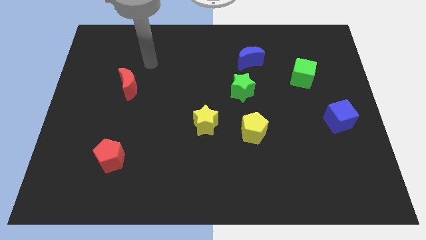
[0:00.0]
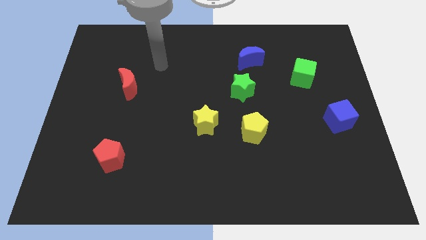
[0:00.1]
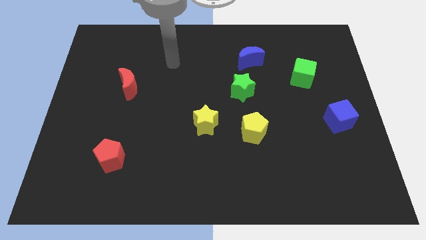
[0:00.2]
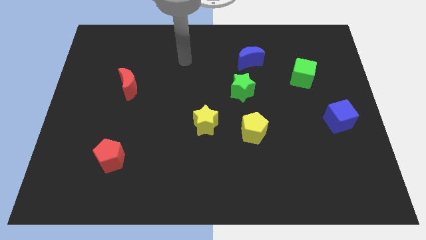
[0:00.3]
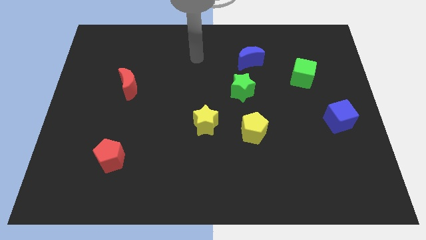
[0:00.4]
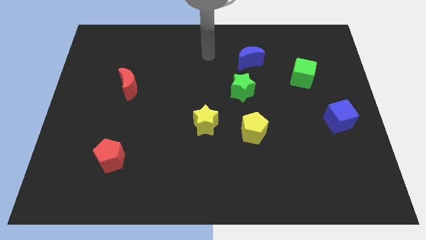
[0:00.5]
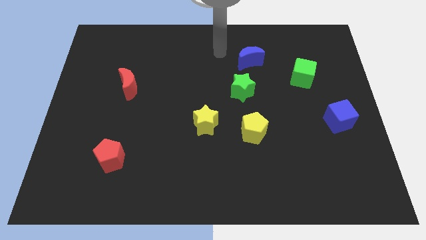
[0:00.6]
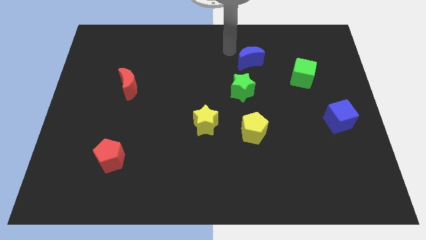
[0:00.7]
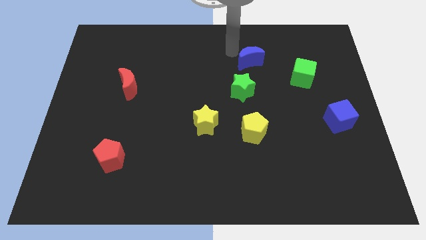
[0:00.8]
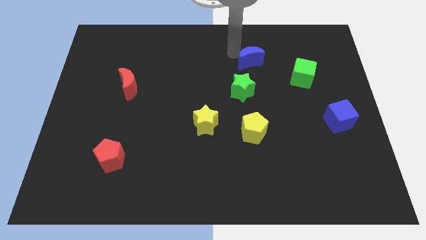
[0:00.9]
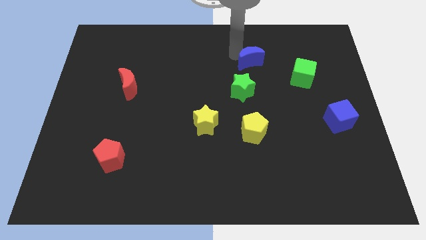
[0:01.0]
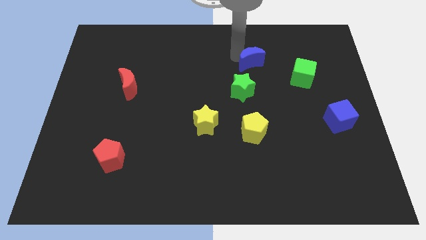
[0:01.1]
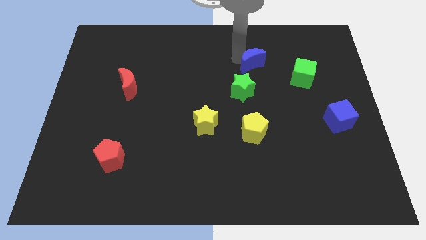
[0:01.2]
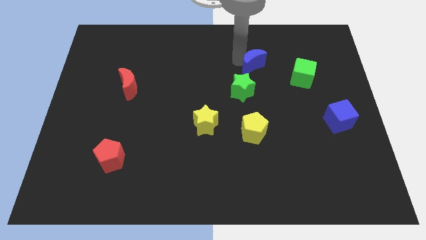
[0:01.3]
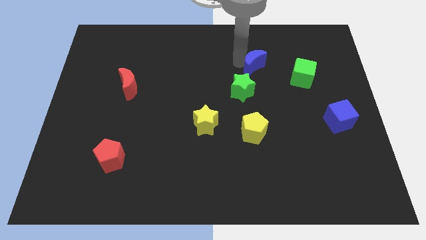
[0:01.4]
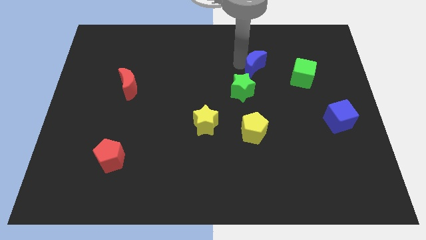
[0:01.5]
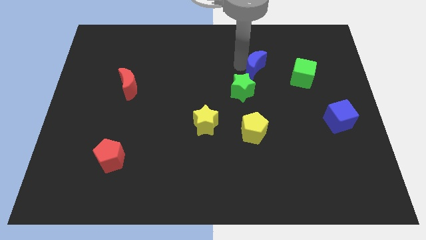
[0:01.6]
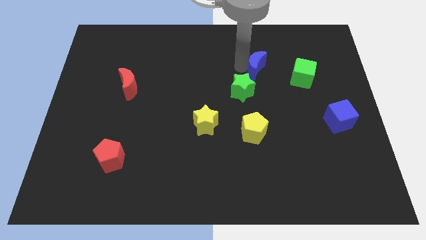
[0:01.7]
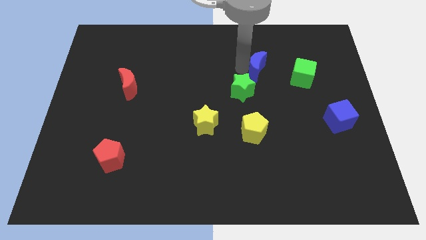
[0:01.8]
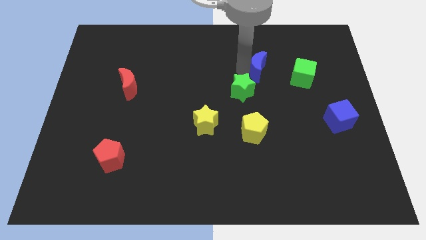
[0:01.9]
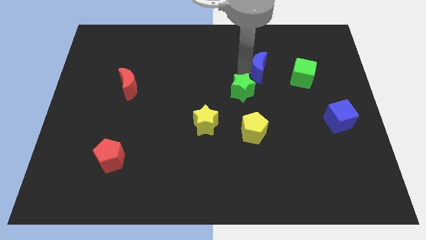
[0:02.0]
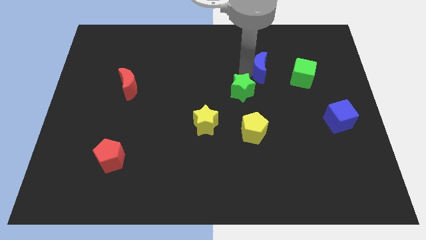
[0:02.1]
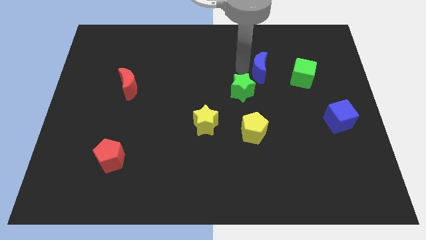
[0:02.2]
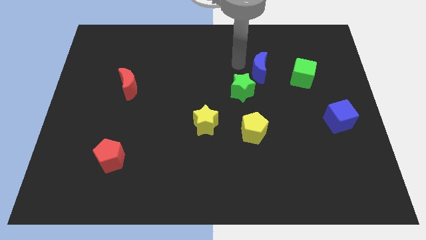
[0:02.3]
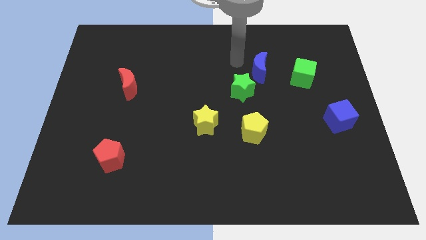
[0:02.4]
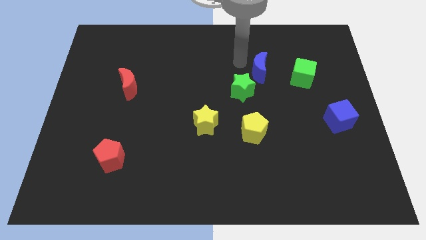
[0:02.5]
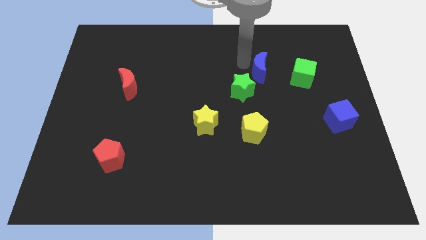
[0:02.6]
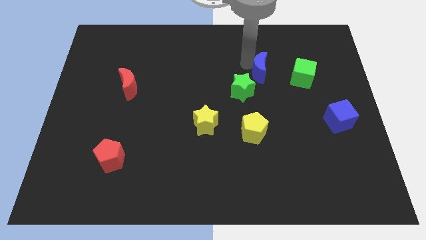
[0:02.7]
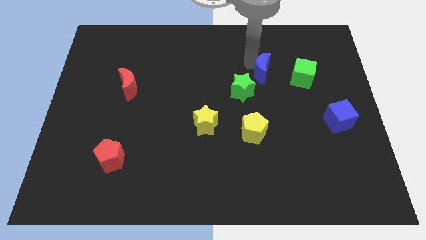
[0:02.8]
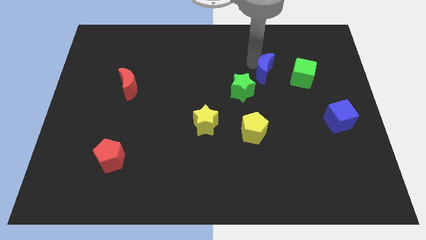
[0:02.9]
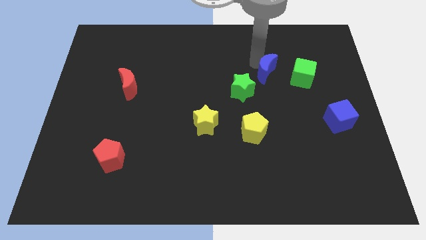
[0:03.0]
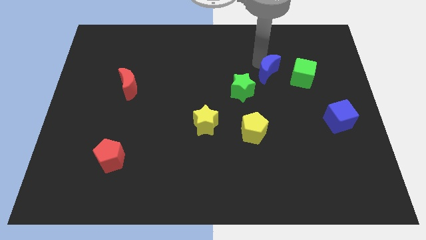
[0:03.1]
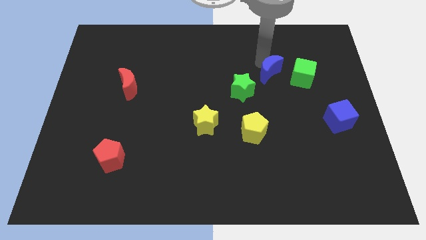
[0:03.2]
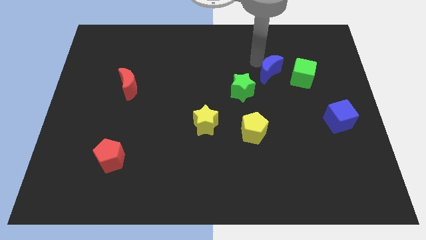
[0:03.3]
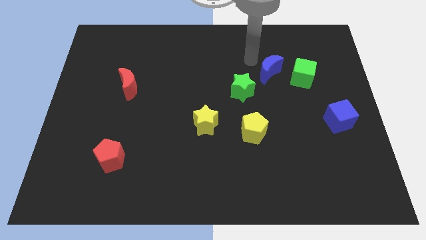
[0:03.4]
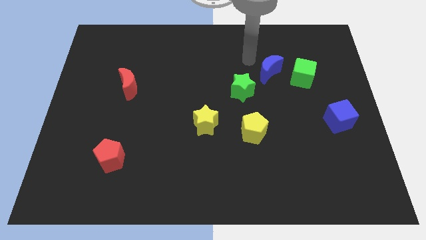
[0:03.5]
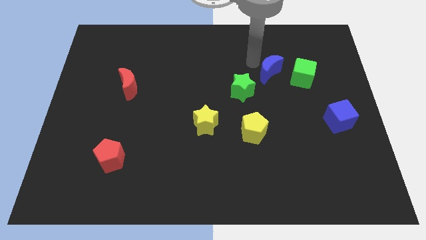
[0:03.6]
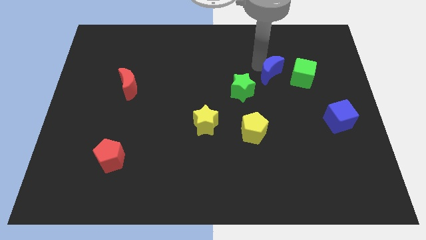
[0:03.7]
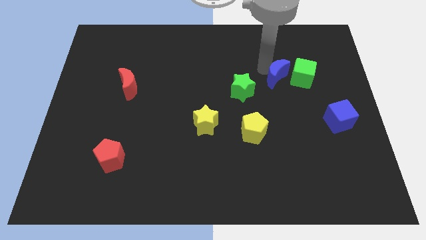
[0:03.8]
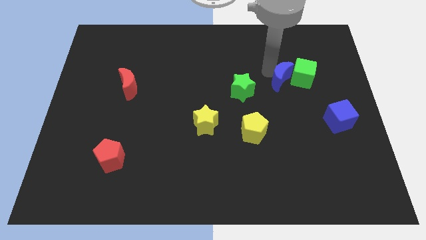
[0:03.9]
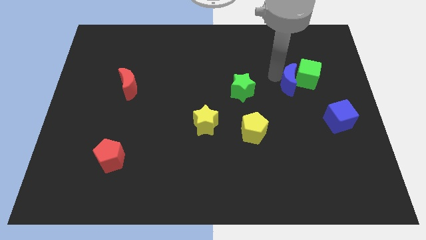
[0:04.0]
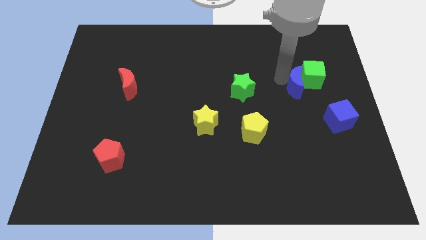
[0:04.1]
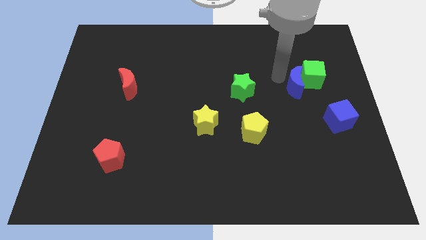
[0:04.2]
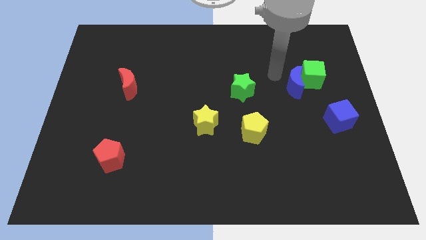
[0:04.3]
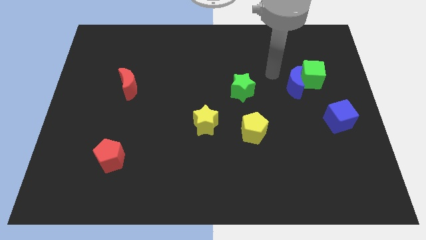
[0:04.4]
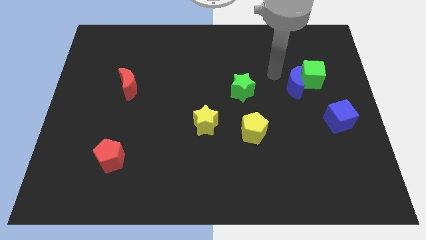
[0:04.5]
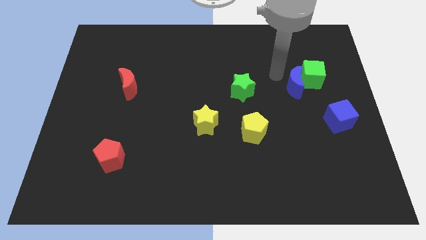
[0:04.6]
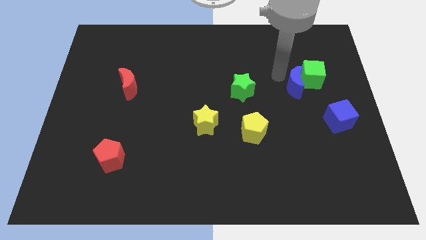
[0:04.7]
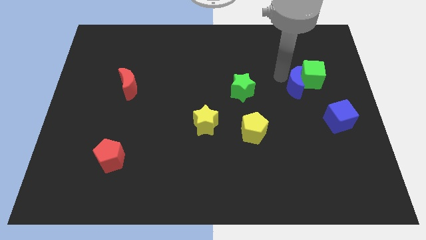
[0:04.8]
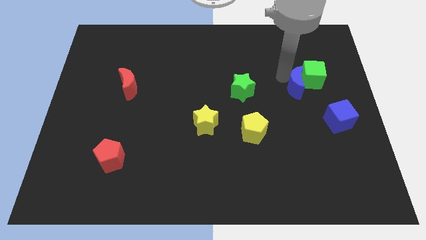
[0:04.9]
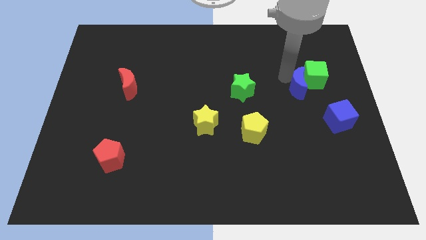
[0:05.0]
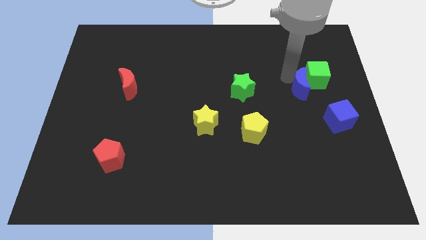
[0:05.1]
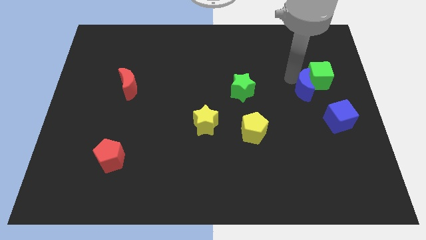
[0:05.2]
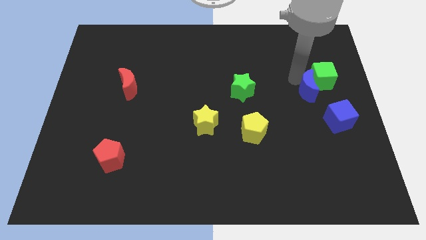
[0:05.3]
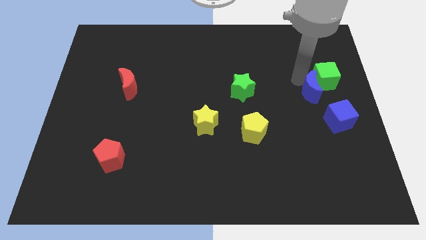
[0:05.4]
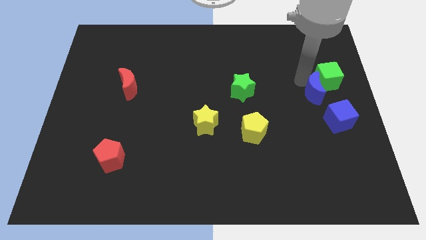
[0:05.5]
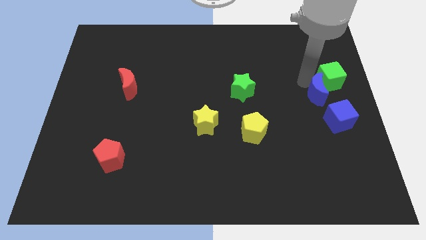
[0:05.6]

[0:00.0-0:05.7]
push the blue moon to the right side
